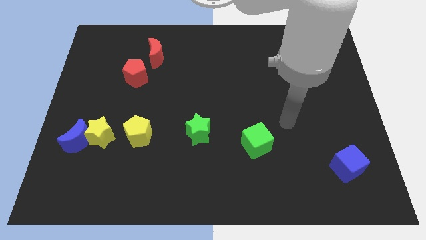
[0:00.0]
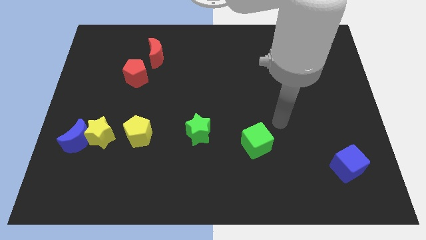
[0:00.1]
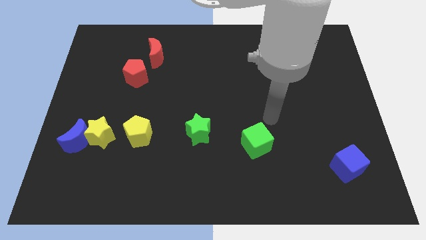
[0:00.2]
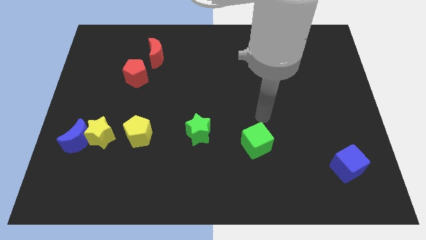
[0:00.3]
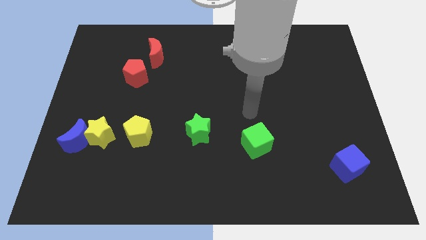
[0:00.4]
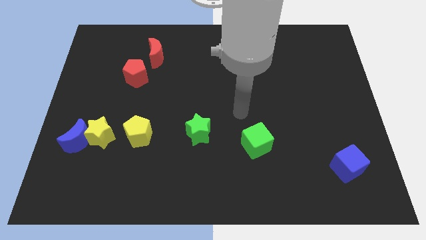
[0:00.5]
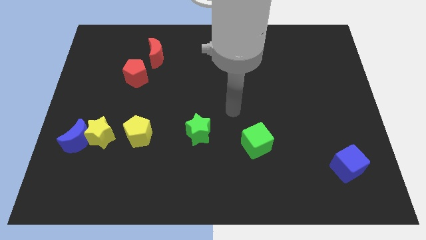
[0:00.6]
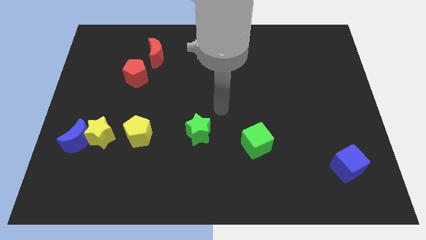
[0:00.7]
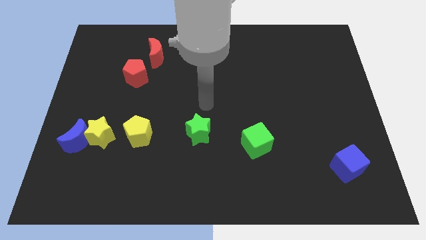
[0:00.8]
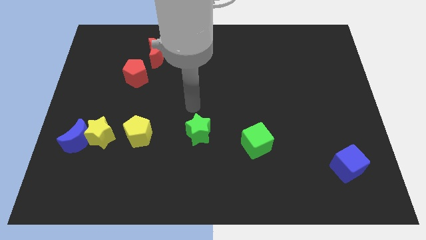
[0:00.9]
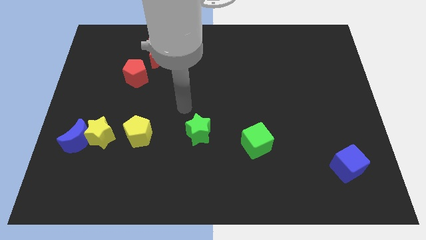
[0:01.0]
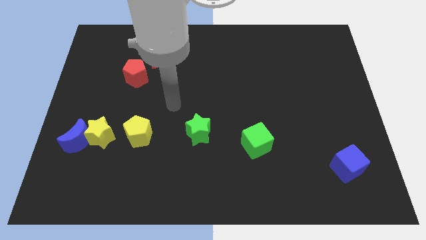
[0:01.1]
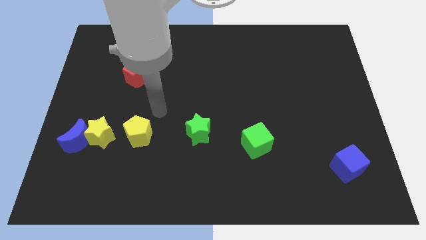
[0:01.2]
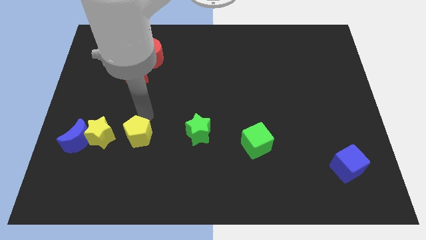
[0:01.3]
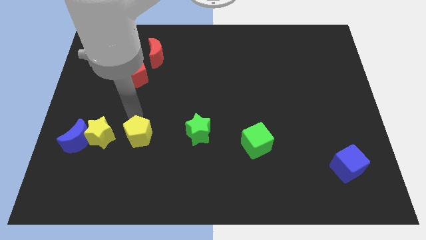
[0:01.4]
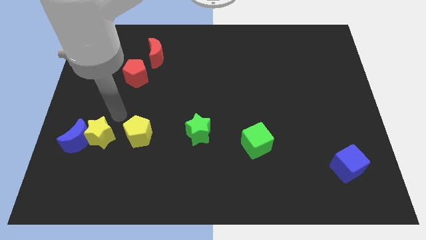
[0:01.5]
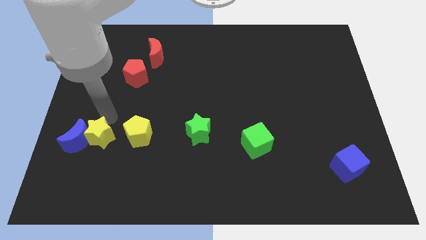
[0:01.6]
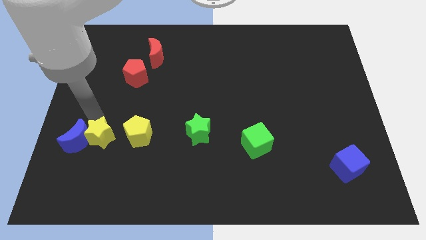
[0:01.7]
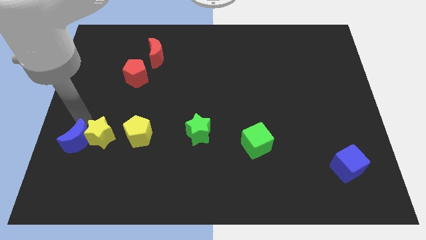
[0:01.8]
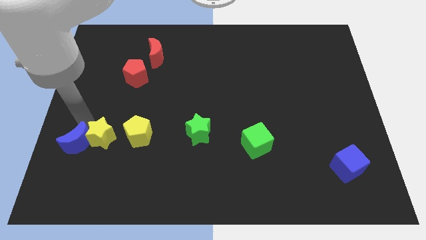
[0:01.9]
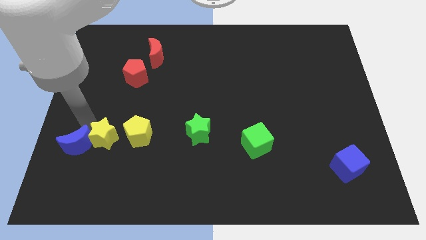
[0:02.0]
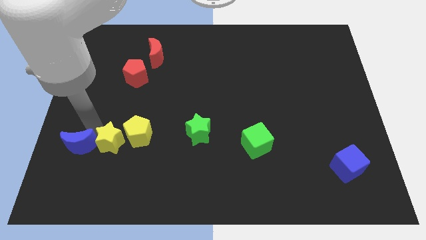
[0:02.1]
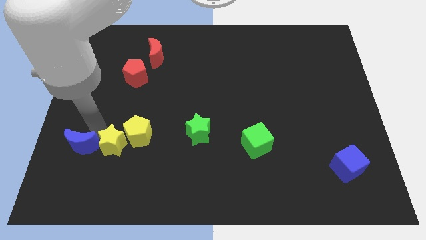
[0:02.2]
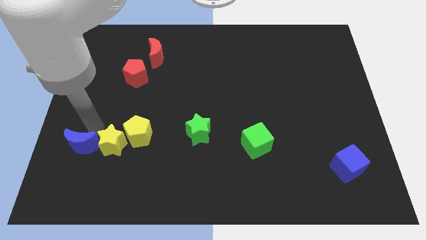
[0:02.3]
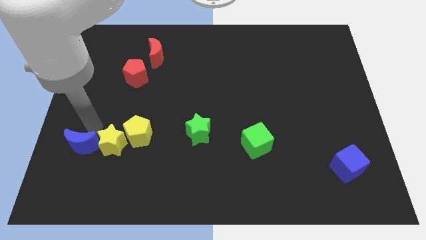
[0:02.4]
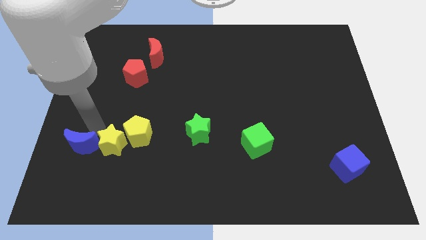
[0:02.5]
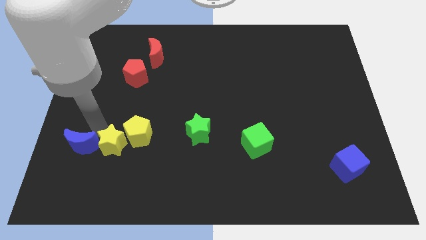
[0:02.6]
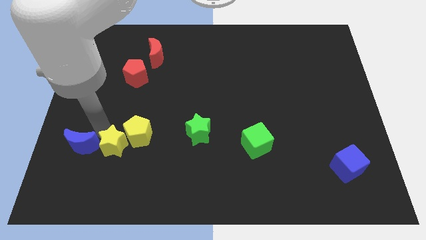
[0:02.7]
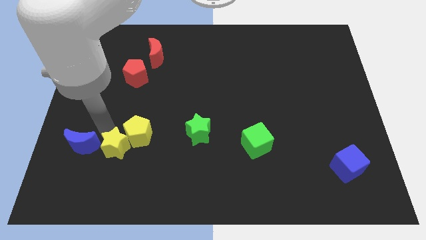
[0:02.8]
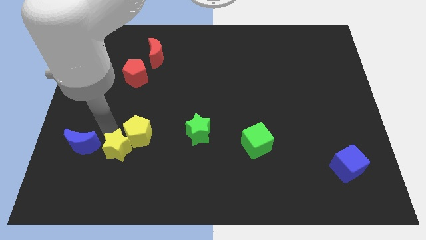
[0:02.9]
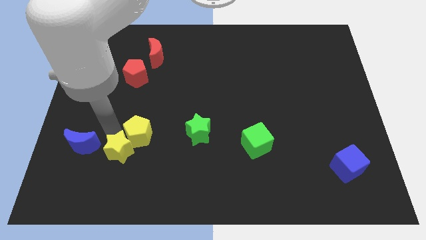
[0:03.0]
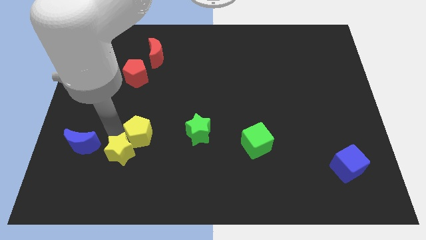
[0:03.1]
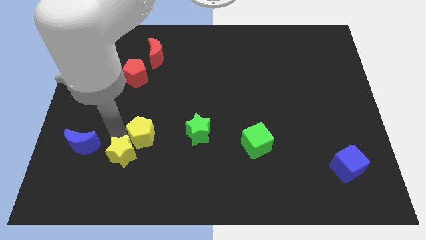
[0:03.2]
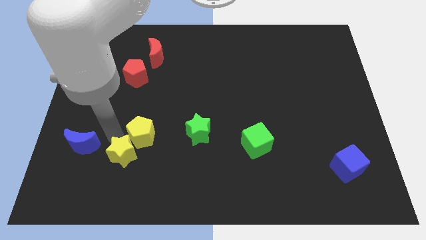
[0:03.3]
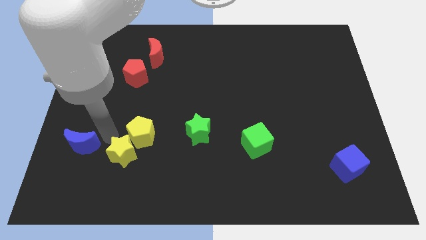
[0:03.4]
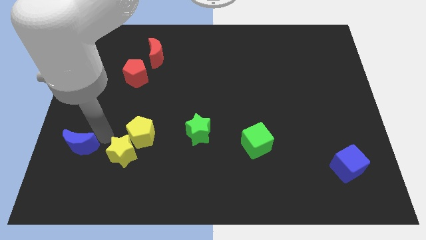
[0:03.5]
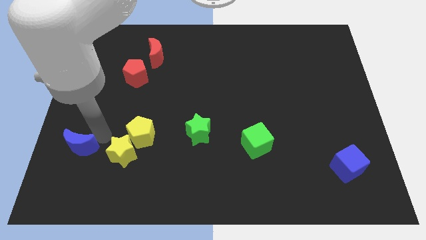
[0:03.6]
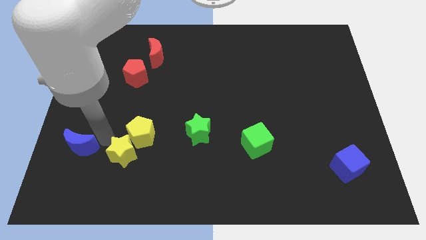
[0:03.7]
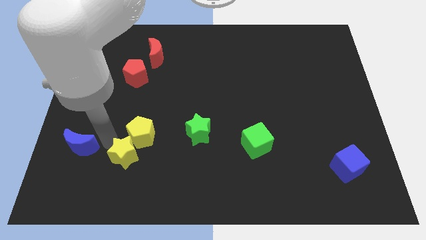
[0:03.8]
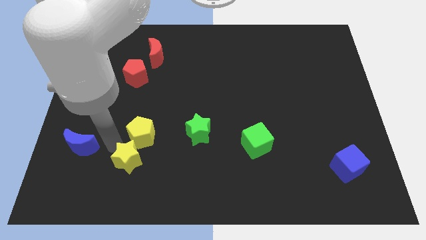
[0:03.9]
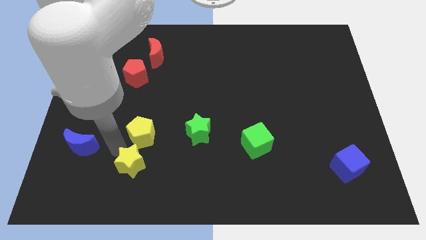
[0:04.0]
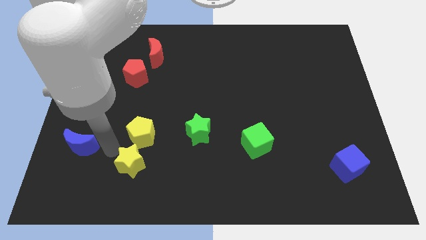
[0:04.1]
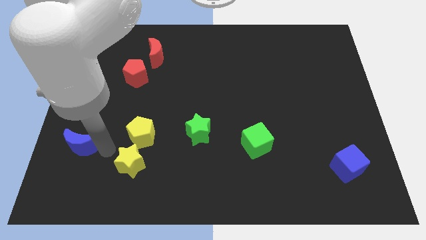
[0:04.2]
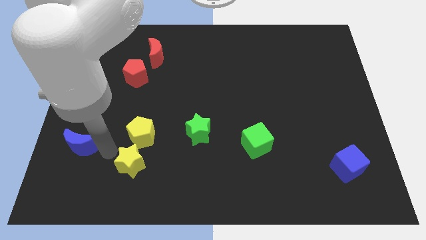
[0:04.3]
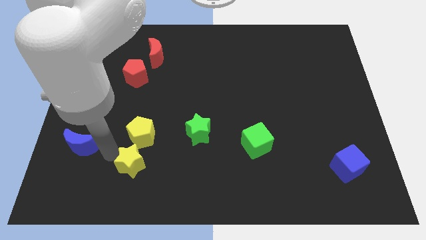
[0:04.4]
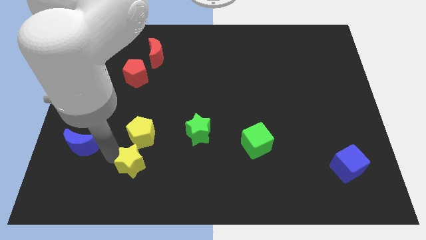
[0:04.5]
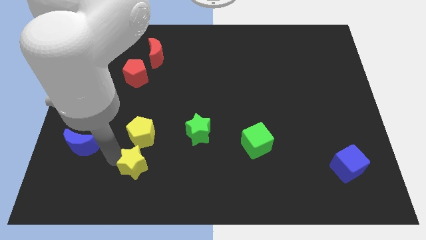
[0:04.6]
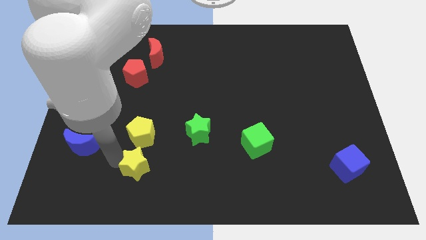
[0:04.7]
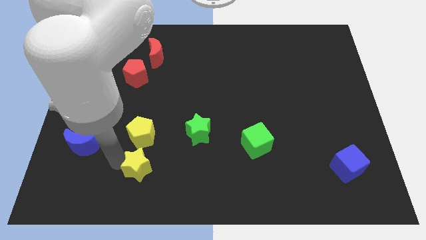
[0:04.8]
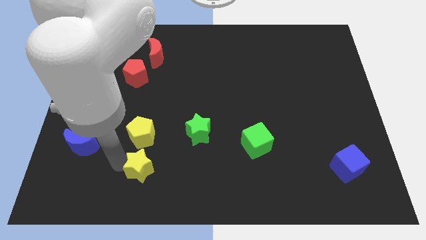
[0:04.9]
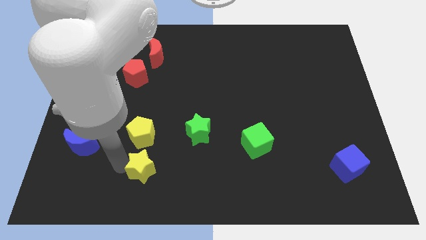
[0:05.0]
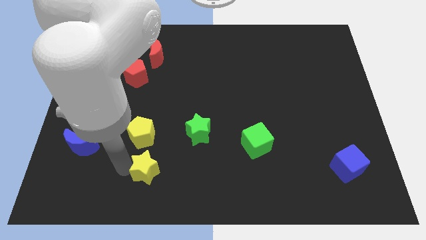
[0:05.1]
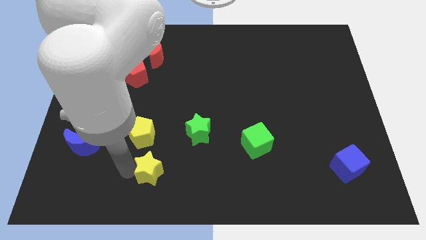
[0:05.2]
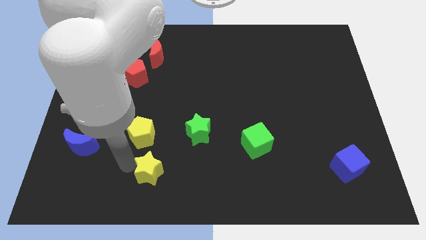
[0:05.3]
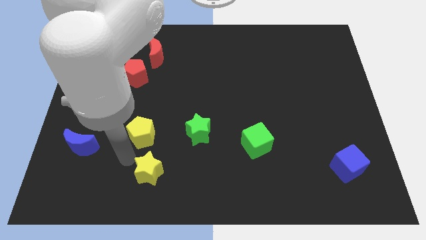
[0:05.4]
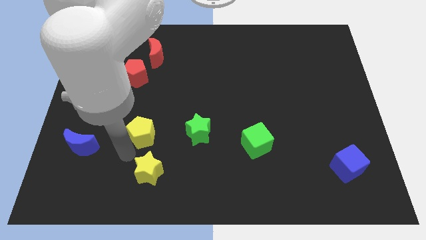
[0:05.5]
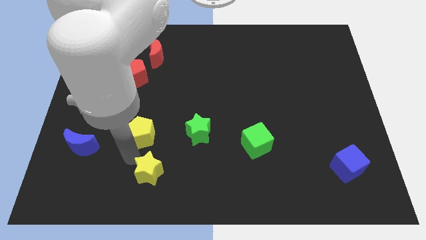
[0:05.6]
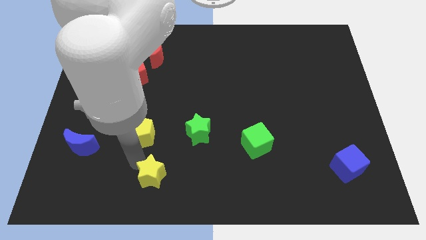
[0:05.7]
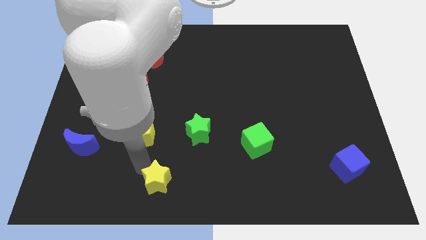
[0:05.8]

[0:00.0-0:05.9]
slide the yellow star to the bottom side
